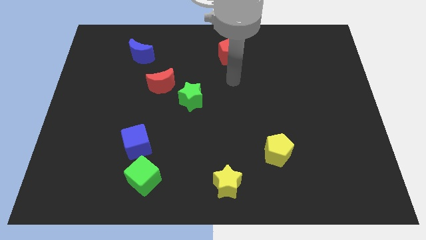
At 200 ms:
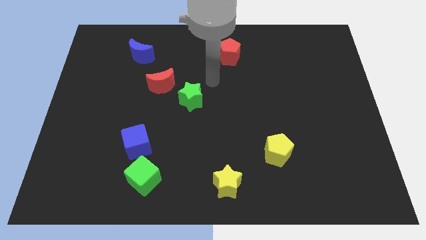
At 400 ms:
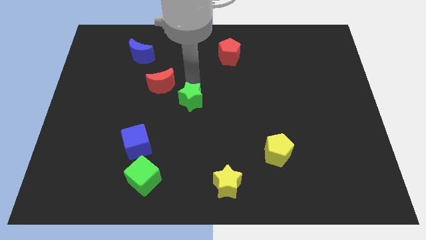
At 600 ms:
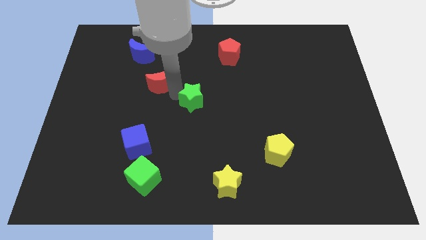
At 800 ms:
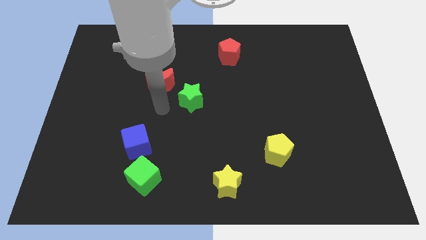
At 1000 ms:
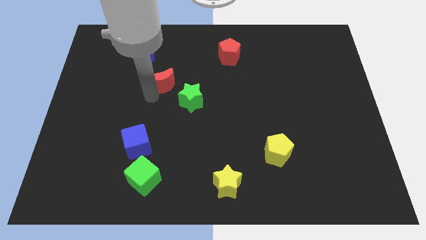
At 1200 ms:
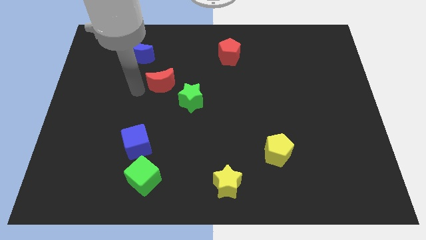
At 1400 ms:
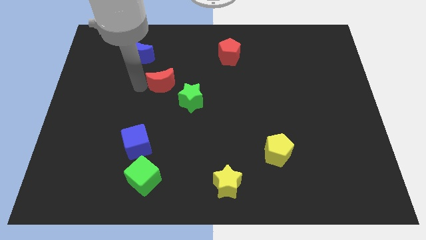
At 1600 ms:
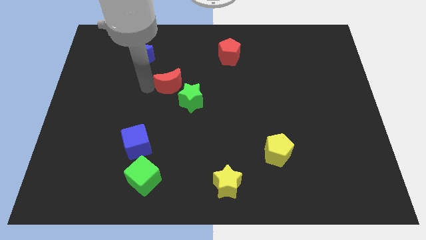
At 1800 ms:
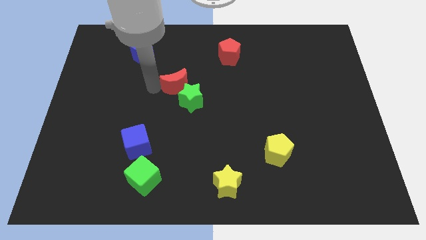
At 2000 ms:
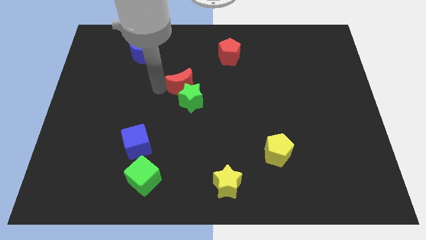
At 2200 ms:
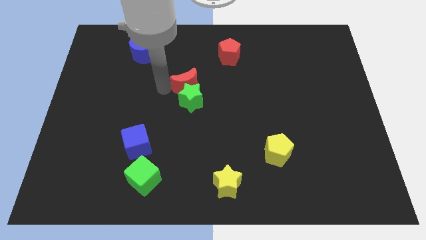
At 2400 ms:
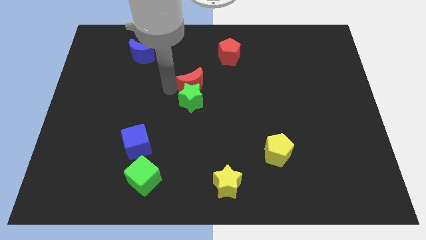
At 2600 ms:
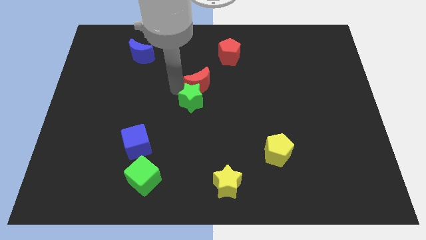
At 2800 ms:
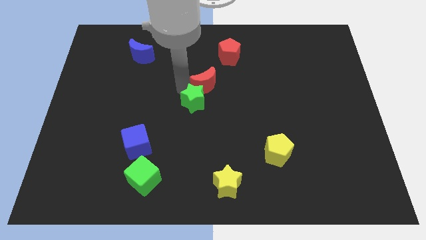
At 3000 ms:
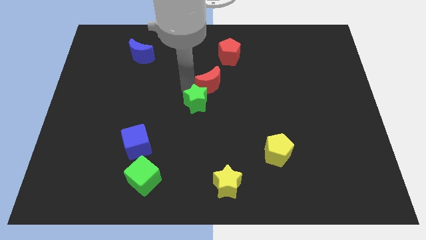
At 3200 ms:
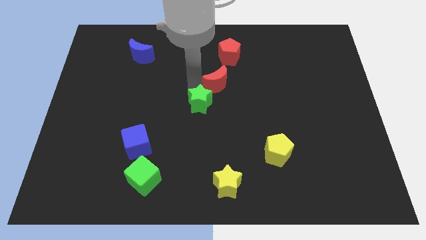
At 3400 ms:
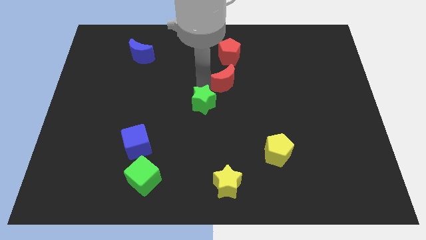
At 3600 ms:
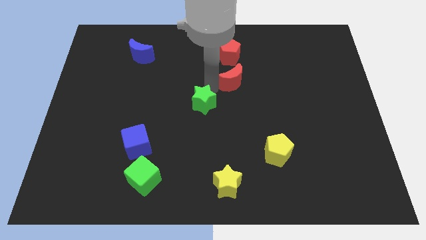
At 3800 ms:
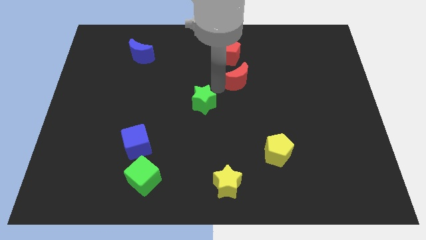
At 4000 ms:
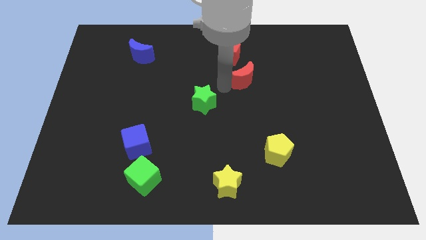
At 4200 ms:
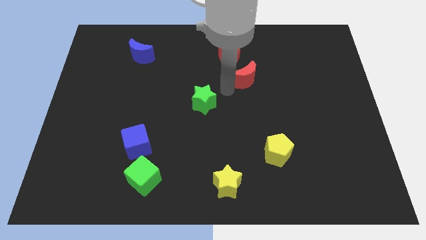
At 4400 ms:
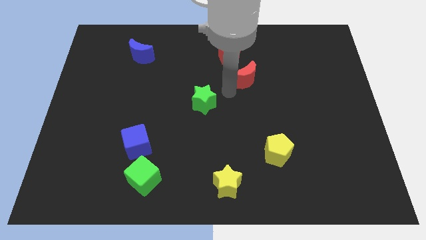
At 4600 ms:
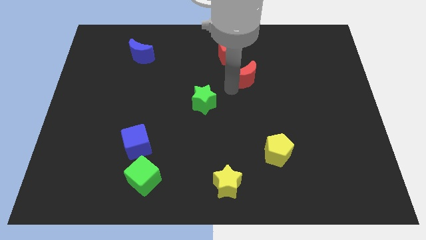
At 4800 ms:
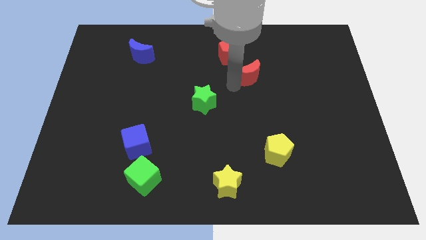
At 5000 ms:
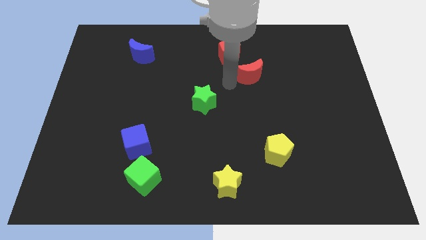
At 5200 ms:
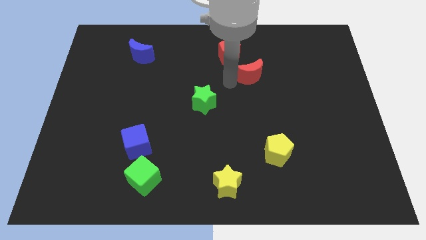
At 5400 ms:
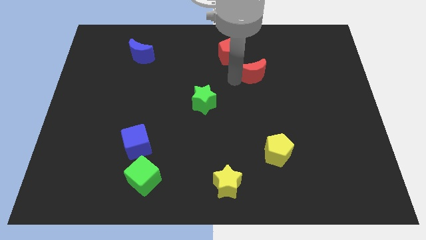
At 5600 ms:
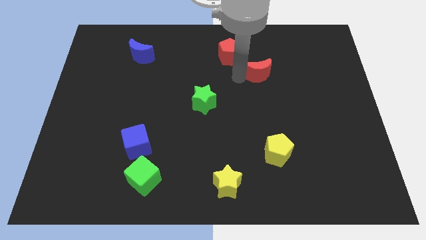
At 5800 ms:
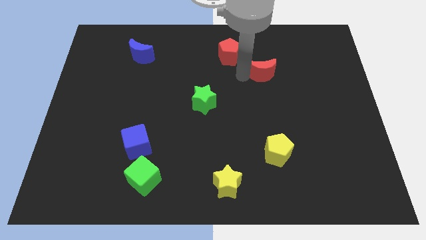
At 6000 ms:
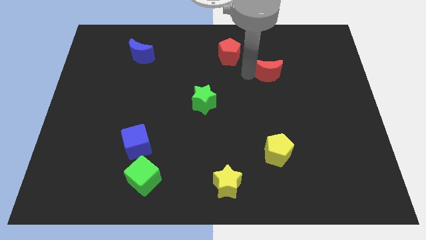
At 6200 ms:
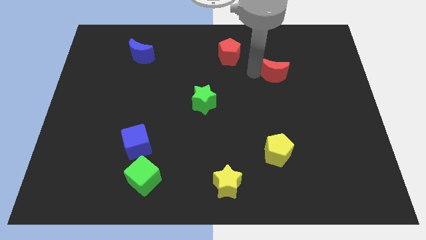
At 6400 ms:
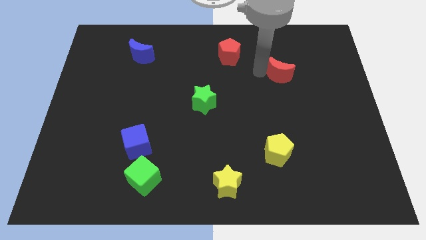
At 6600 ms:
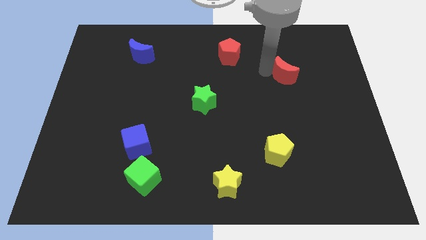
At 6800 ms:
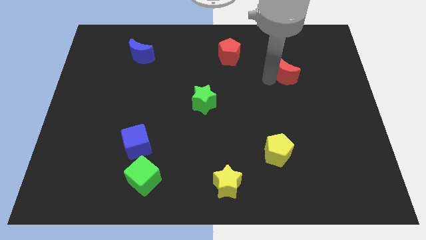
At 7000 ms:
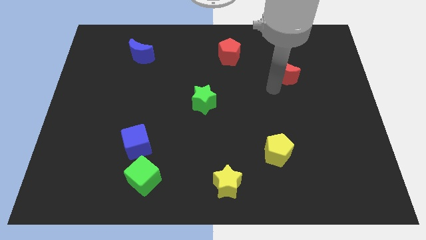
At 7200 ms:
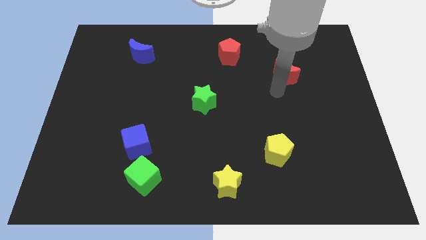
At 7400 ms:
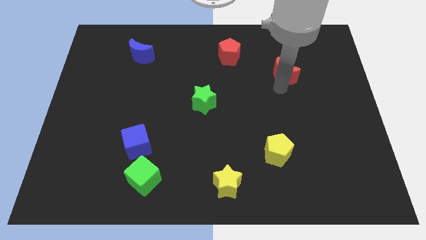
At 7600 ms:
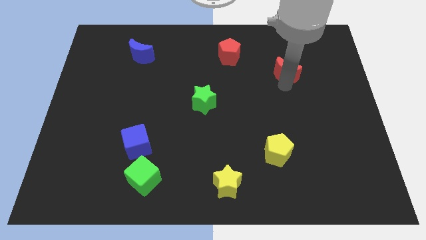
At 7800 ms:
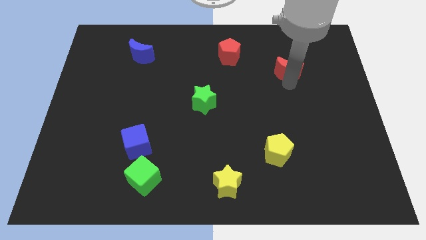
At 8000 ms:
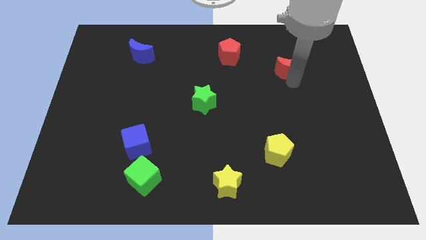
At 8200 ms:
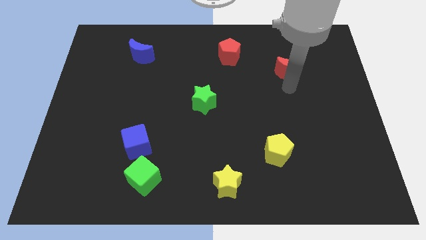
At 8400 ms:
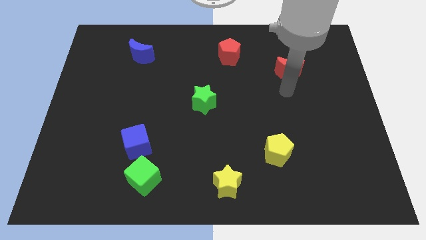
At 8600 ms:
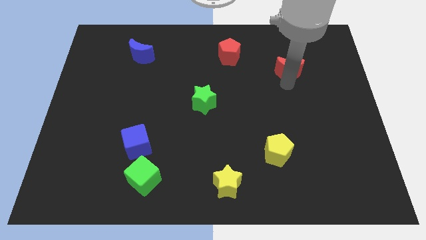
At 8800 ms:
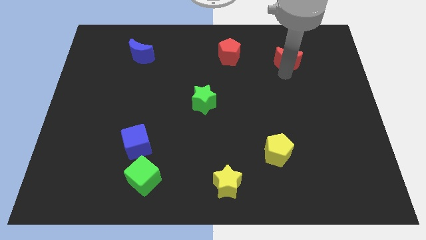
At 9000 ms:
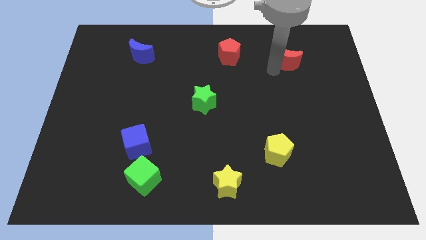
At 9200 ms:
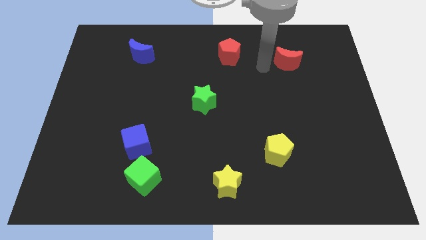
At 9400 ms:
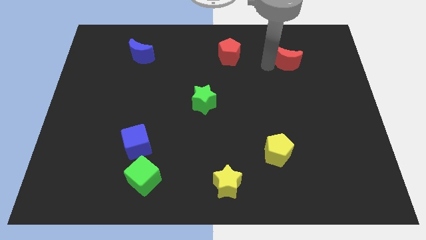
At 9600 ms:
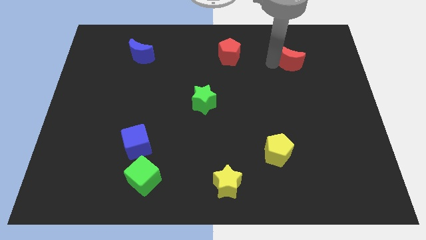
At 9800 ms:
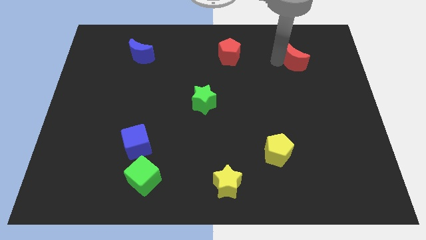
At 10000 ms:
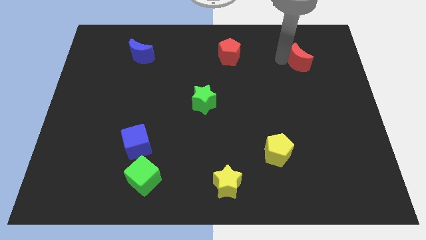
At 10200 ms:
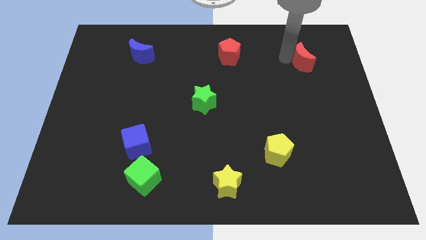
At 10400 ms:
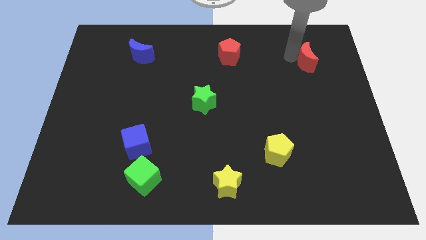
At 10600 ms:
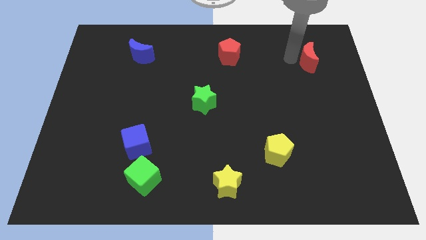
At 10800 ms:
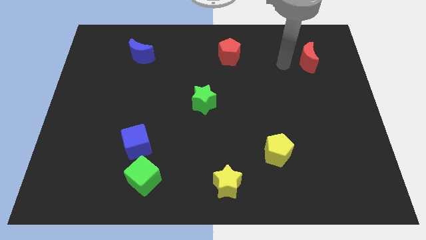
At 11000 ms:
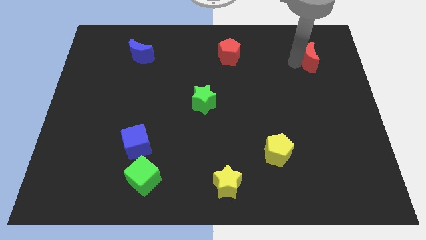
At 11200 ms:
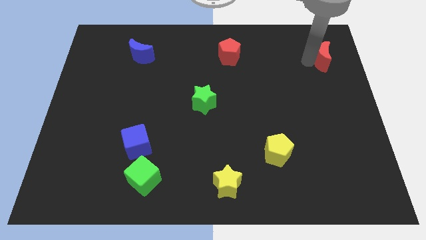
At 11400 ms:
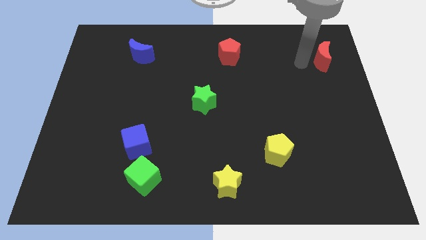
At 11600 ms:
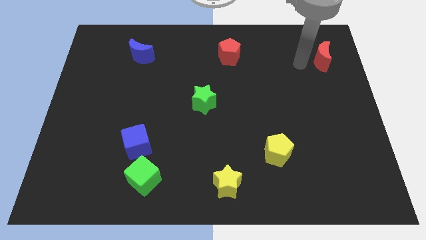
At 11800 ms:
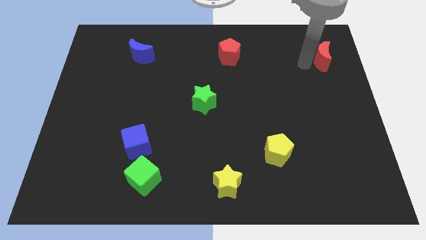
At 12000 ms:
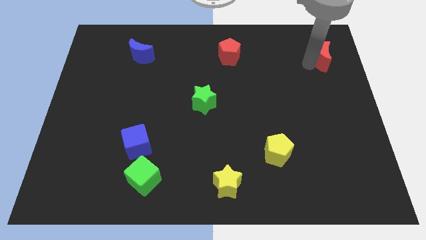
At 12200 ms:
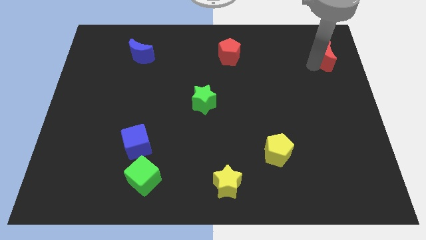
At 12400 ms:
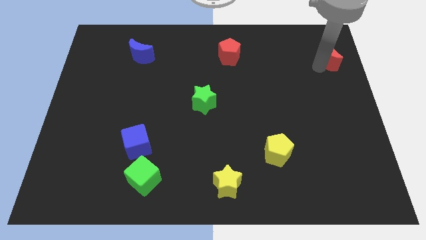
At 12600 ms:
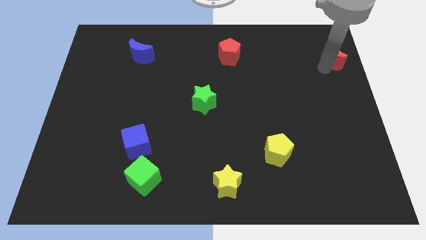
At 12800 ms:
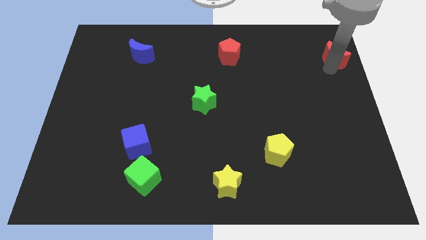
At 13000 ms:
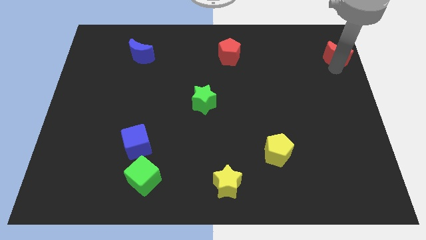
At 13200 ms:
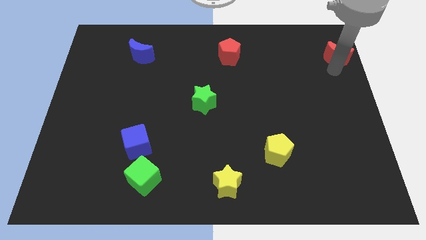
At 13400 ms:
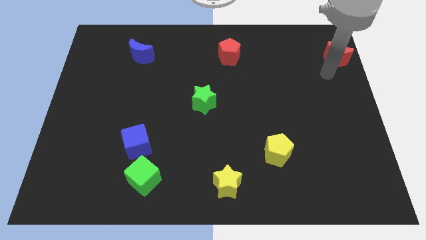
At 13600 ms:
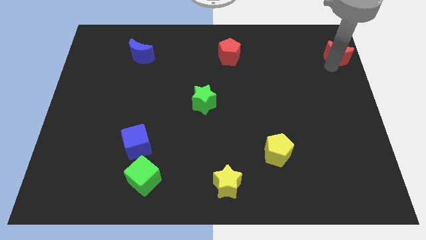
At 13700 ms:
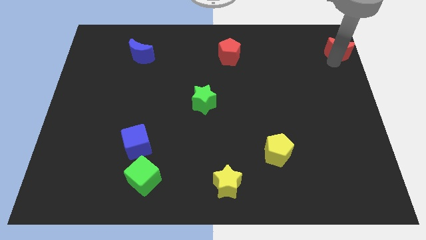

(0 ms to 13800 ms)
put the red moon to the upper right corner
